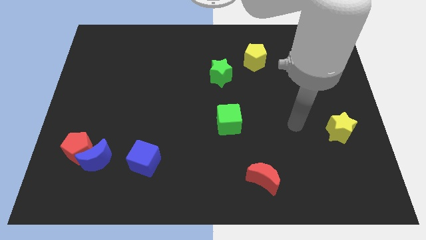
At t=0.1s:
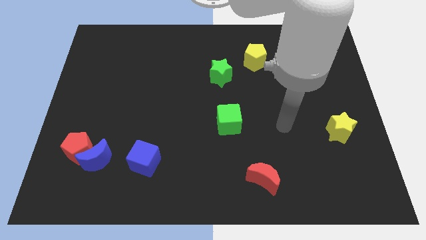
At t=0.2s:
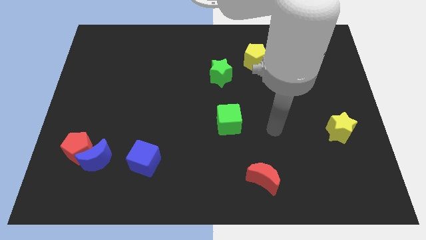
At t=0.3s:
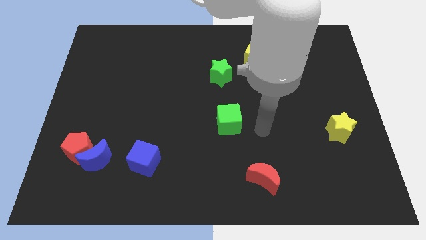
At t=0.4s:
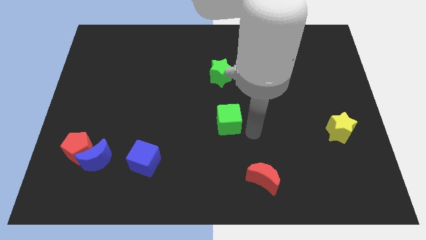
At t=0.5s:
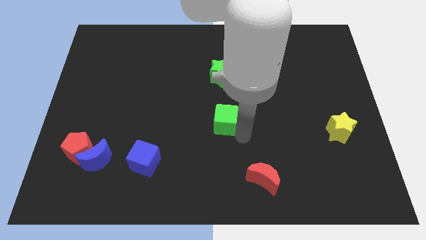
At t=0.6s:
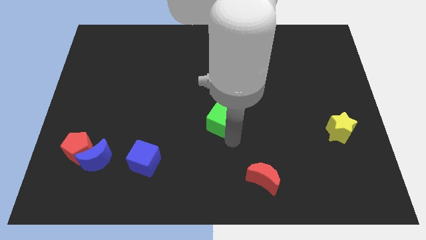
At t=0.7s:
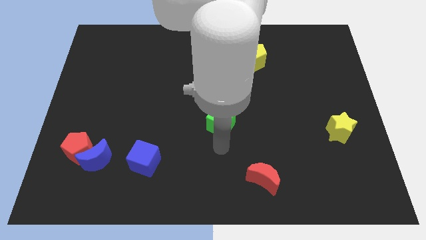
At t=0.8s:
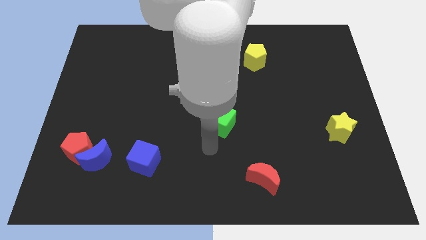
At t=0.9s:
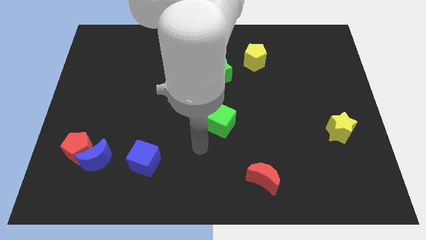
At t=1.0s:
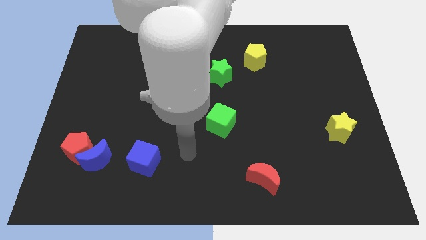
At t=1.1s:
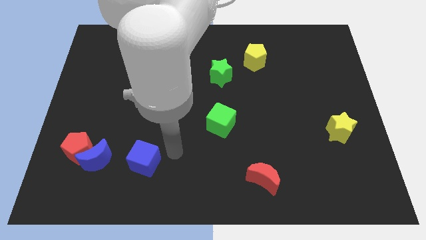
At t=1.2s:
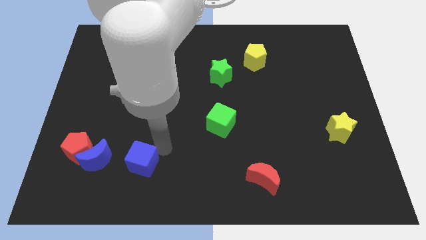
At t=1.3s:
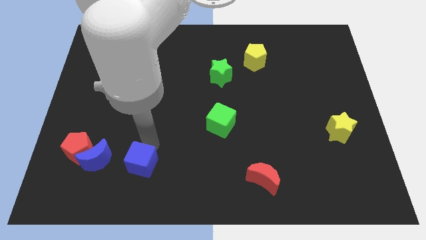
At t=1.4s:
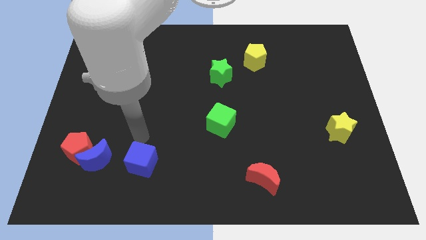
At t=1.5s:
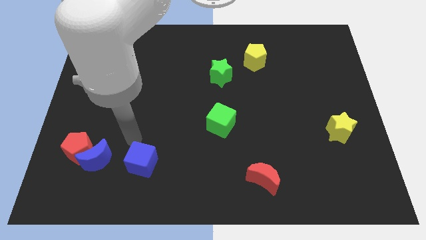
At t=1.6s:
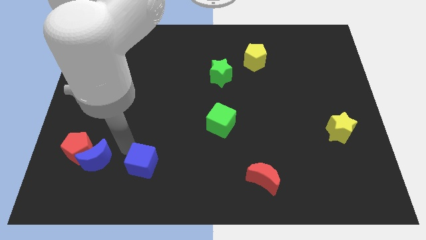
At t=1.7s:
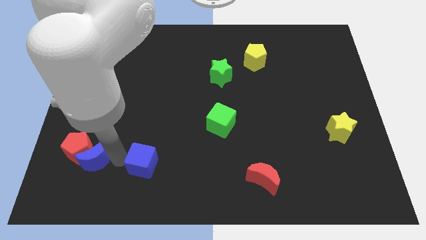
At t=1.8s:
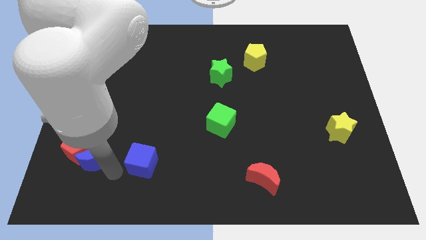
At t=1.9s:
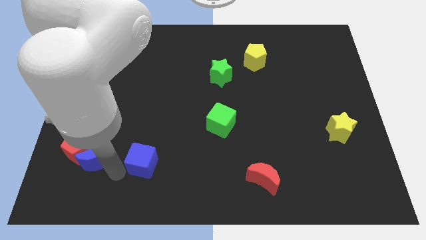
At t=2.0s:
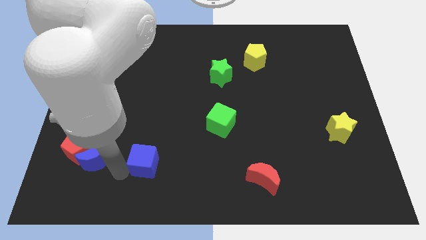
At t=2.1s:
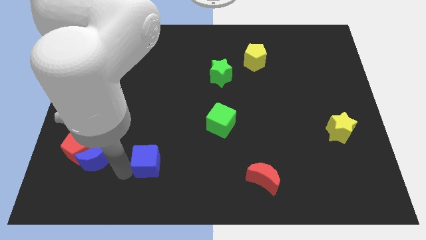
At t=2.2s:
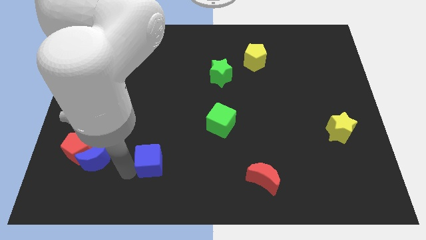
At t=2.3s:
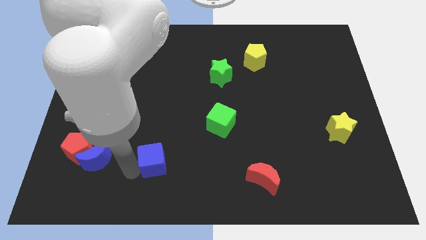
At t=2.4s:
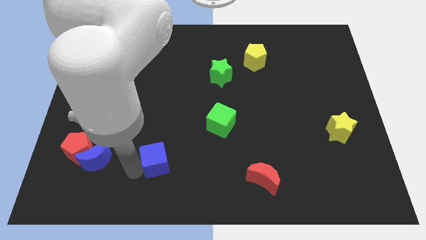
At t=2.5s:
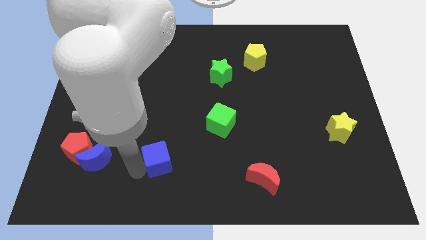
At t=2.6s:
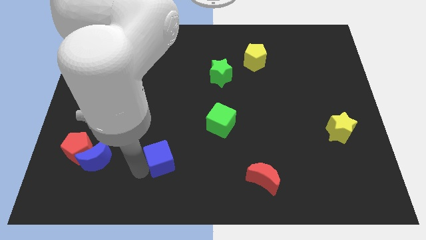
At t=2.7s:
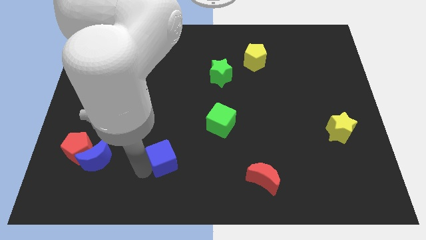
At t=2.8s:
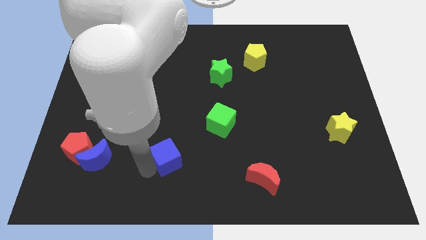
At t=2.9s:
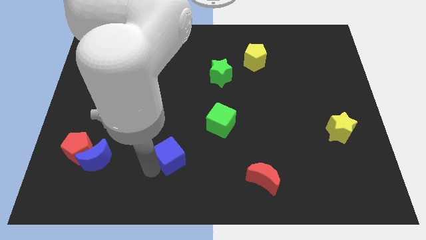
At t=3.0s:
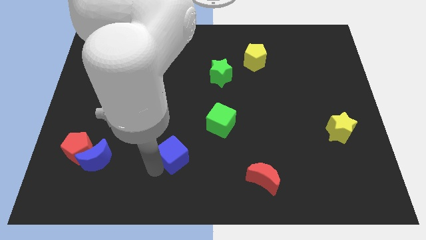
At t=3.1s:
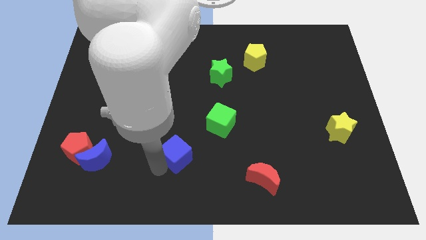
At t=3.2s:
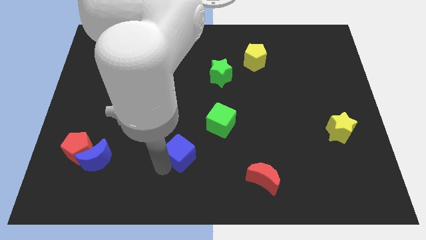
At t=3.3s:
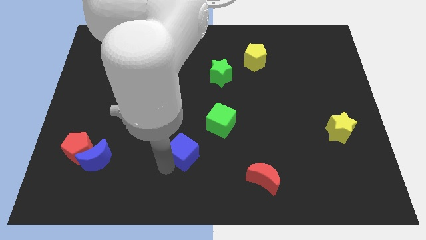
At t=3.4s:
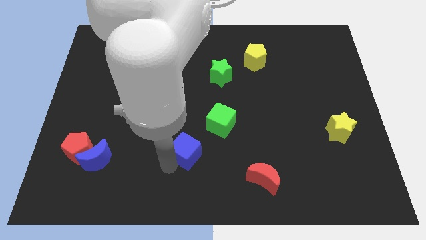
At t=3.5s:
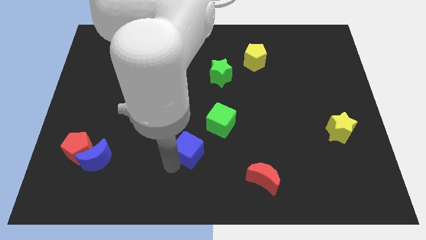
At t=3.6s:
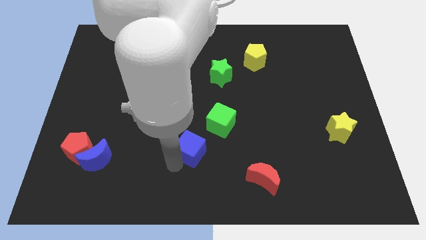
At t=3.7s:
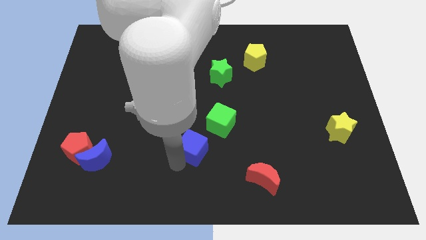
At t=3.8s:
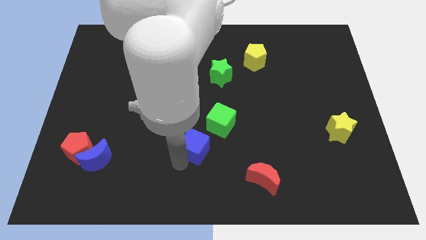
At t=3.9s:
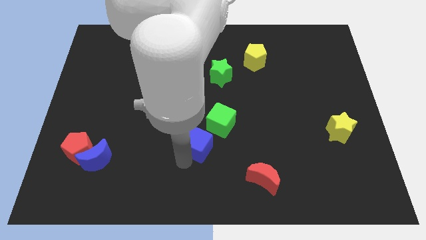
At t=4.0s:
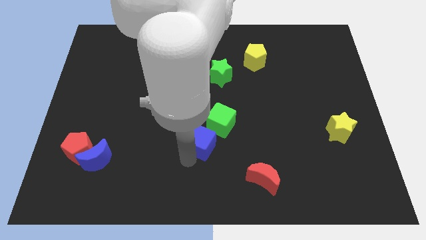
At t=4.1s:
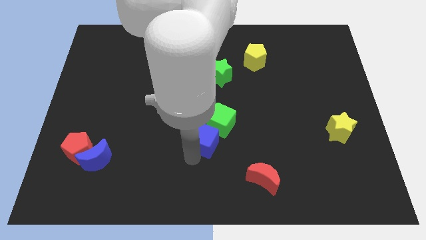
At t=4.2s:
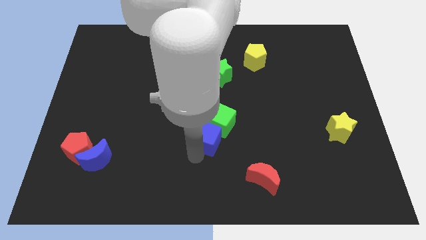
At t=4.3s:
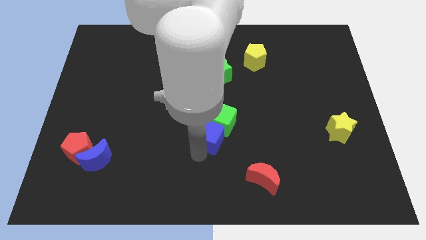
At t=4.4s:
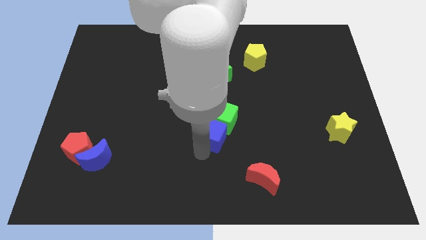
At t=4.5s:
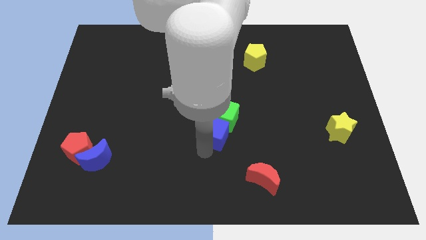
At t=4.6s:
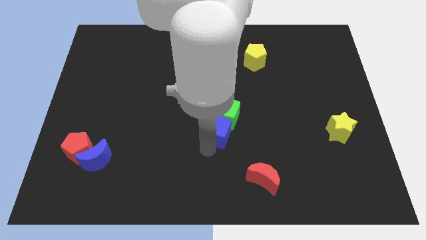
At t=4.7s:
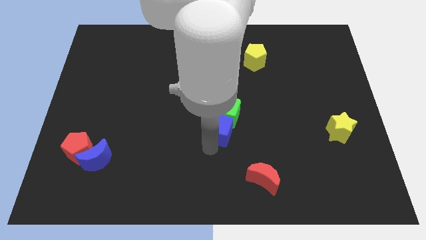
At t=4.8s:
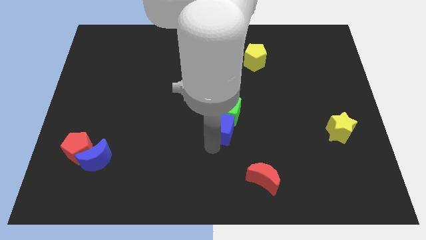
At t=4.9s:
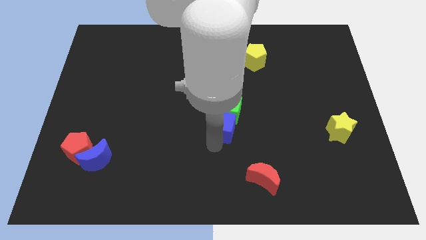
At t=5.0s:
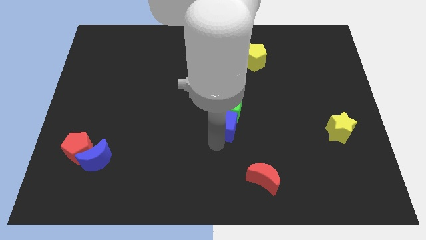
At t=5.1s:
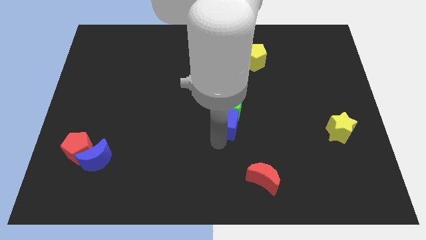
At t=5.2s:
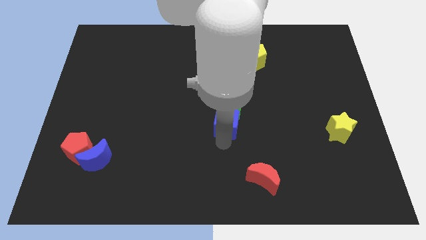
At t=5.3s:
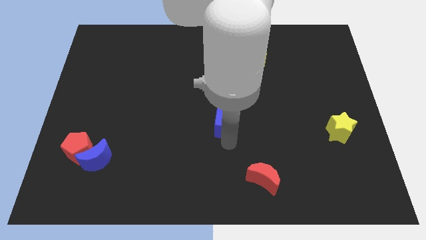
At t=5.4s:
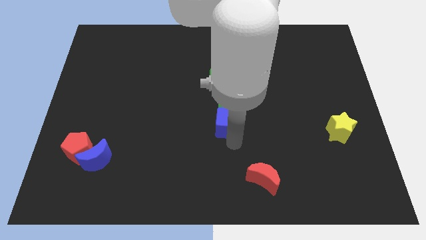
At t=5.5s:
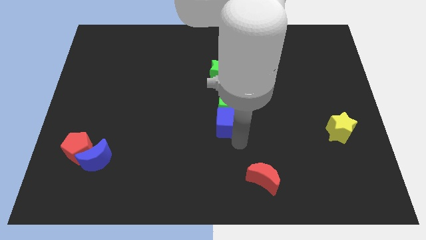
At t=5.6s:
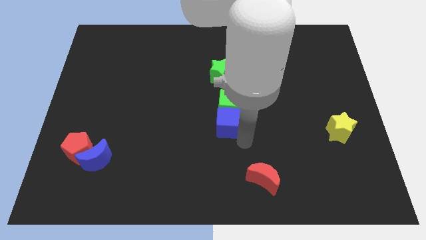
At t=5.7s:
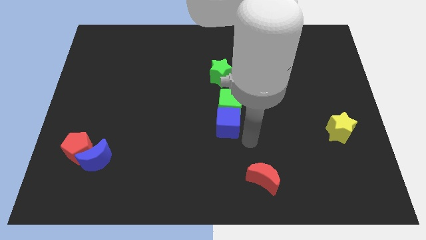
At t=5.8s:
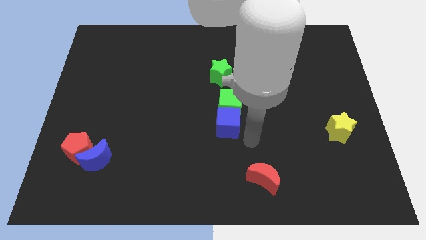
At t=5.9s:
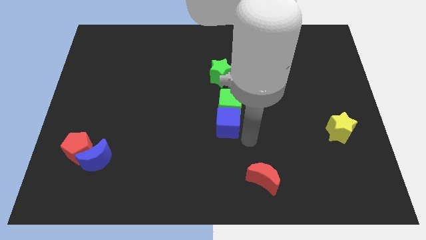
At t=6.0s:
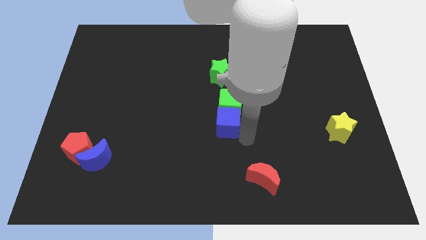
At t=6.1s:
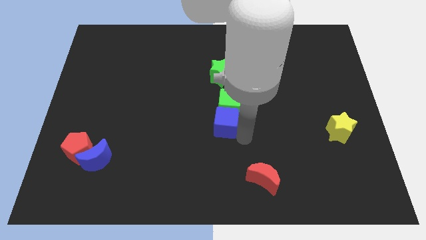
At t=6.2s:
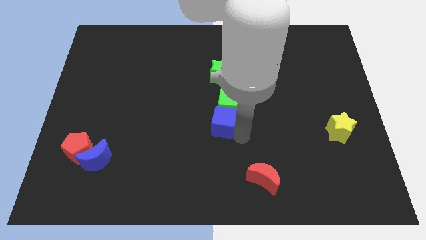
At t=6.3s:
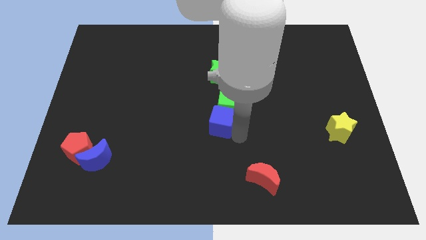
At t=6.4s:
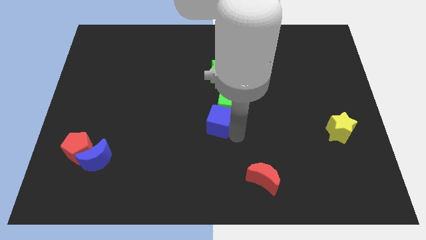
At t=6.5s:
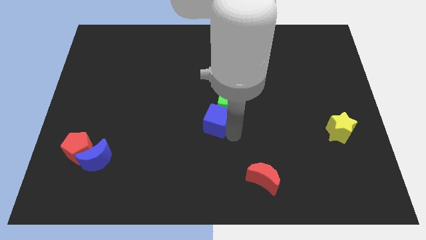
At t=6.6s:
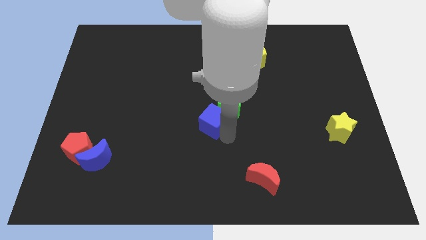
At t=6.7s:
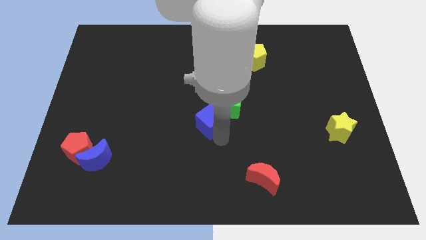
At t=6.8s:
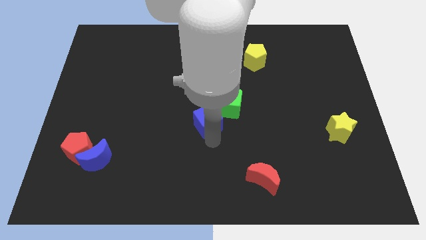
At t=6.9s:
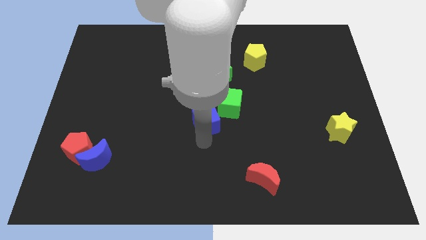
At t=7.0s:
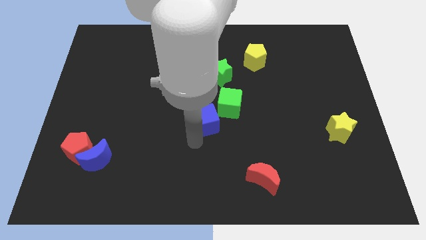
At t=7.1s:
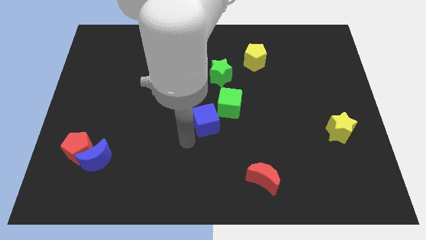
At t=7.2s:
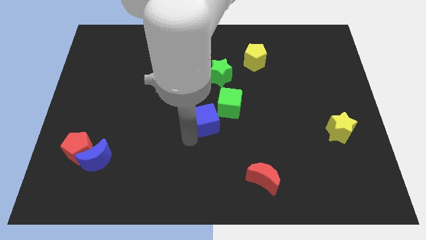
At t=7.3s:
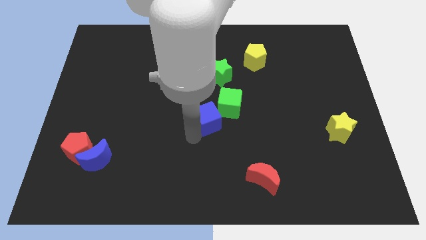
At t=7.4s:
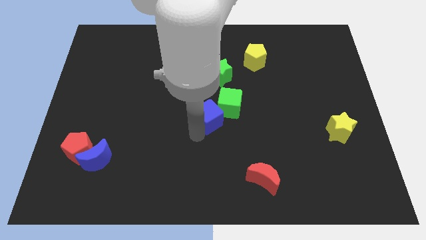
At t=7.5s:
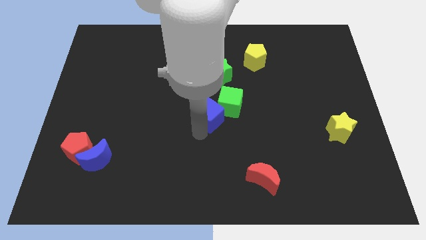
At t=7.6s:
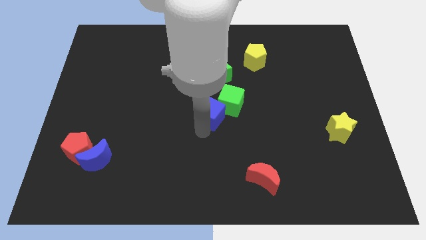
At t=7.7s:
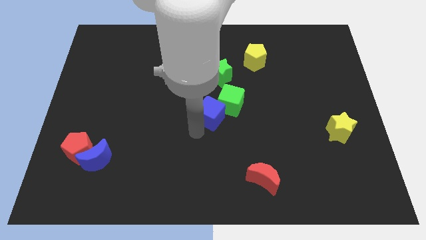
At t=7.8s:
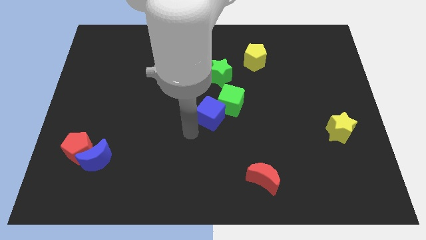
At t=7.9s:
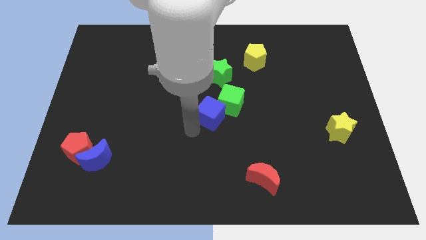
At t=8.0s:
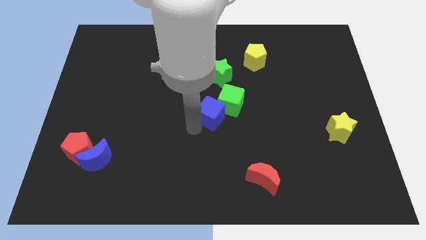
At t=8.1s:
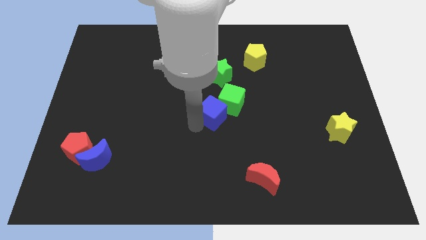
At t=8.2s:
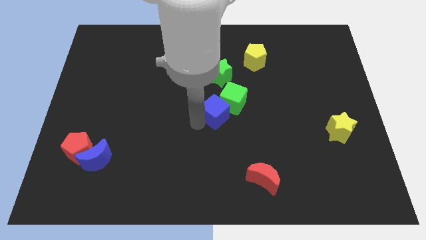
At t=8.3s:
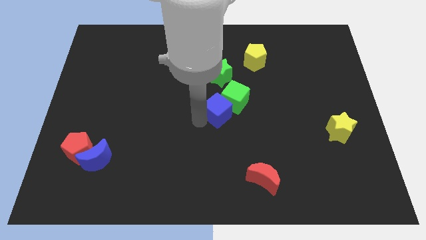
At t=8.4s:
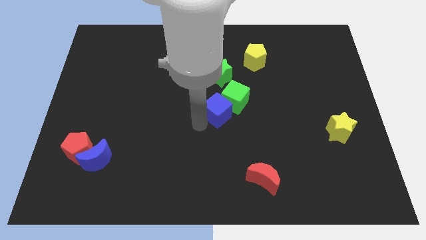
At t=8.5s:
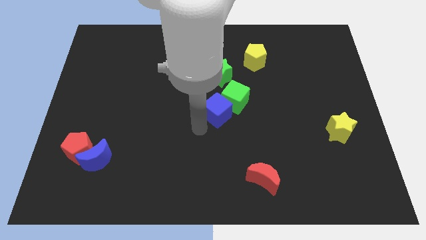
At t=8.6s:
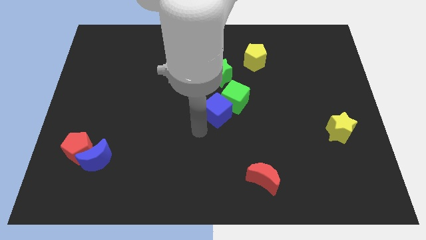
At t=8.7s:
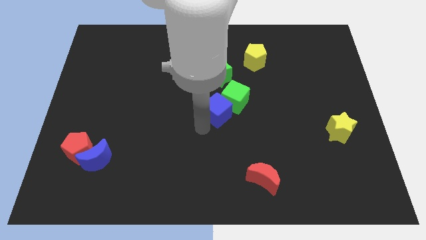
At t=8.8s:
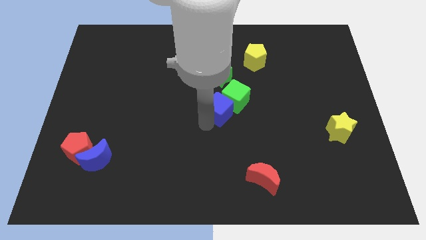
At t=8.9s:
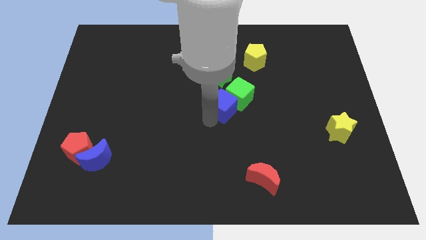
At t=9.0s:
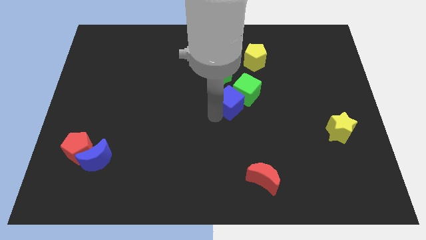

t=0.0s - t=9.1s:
move the blue cube diagonally down and to the right of the green star
